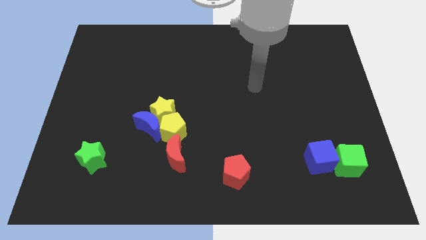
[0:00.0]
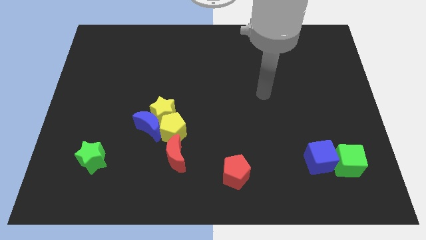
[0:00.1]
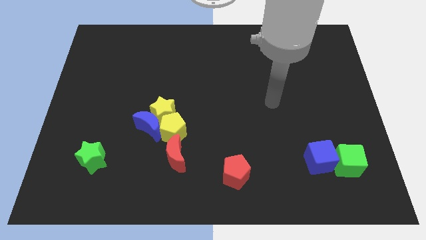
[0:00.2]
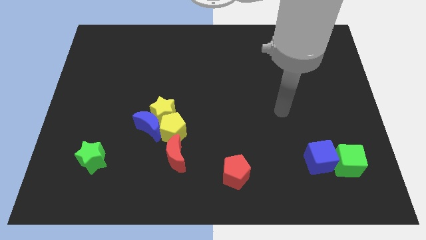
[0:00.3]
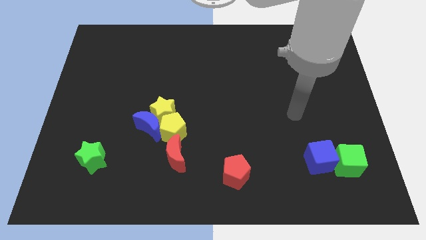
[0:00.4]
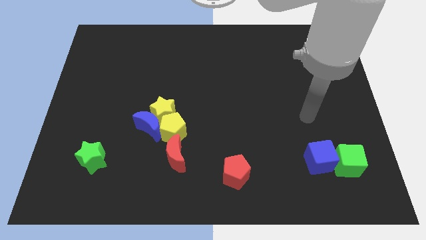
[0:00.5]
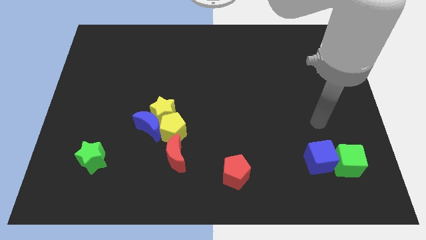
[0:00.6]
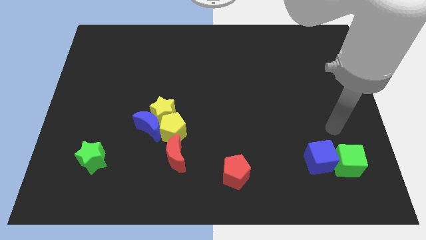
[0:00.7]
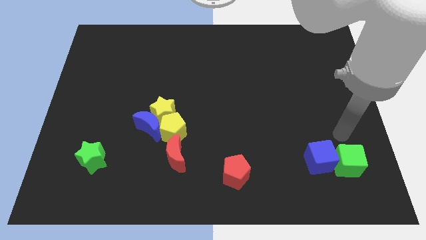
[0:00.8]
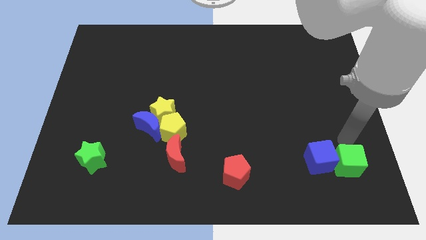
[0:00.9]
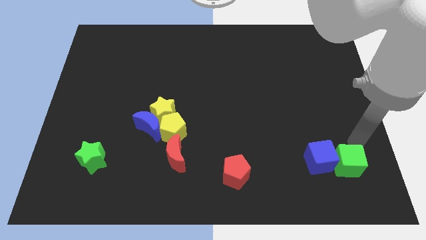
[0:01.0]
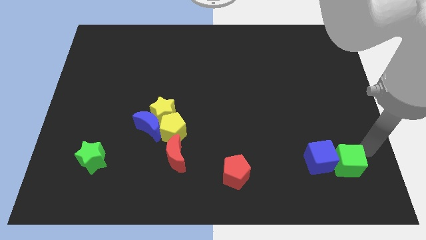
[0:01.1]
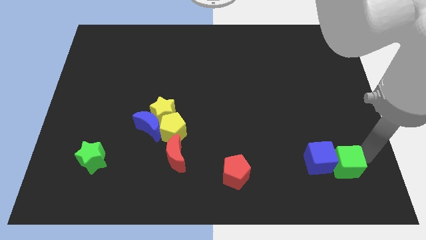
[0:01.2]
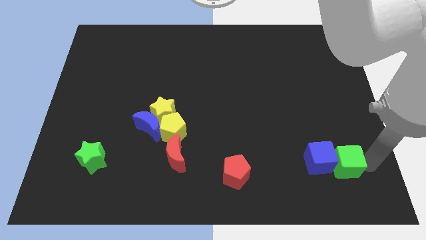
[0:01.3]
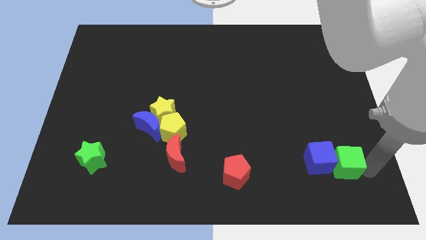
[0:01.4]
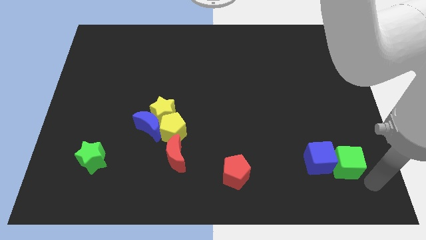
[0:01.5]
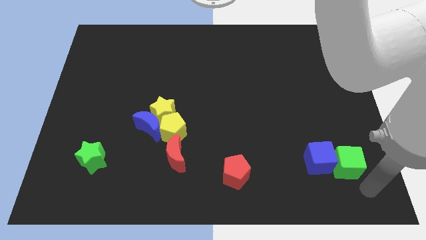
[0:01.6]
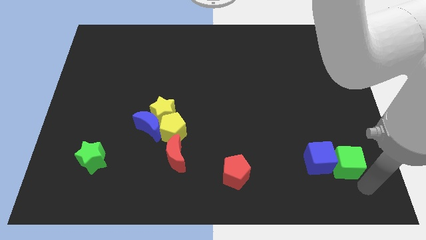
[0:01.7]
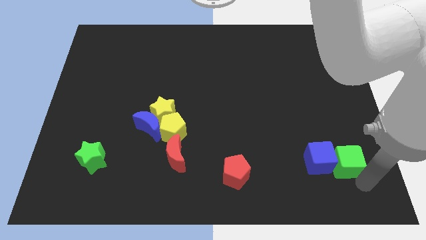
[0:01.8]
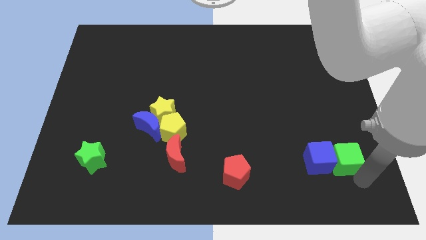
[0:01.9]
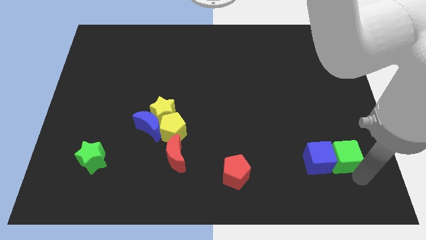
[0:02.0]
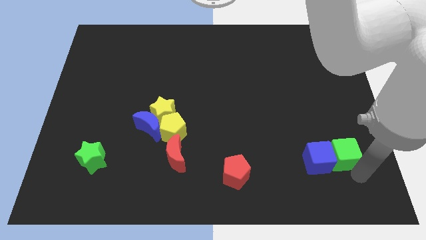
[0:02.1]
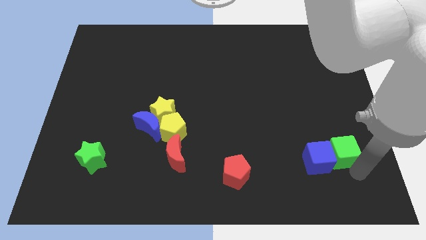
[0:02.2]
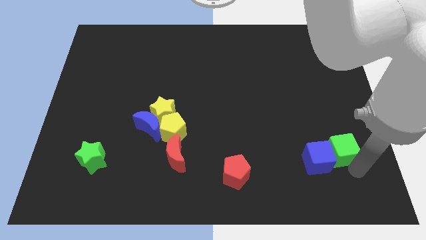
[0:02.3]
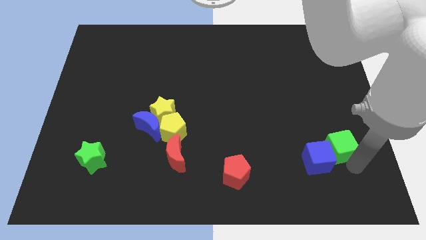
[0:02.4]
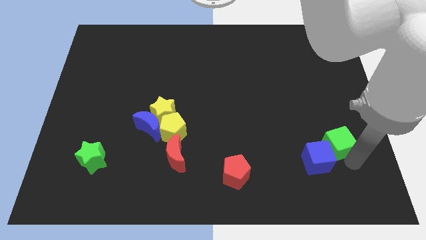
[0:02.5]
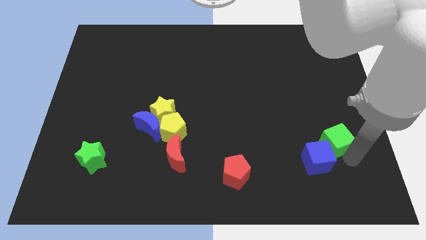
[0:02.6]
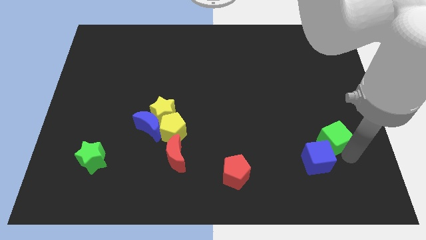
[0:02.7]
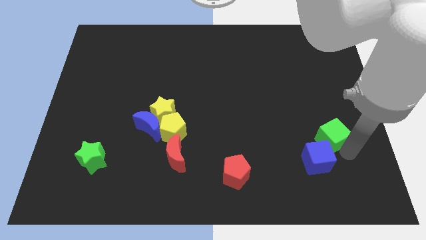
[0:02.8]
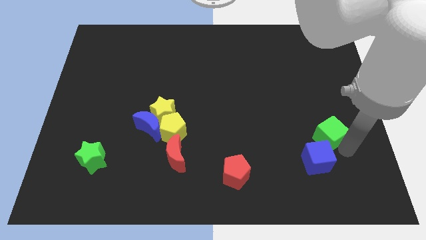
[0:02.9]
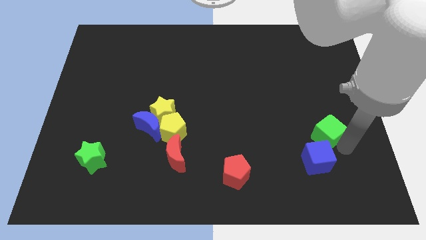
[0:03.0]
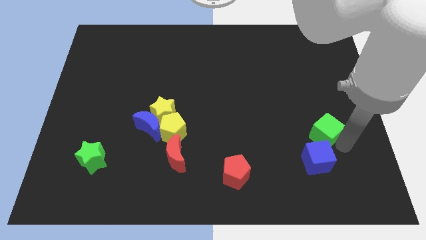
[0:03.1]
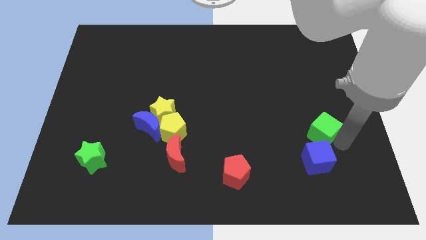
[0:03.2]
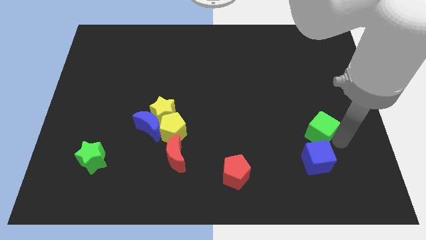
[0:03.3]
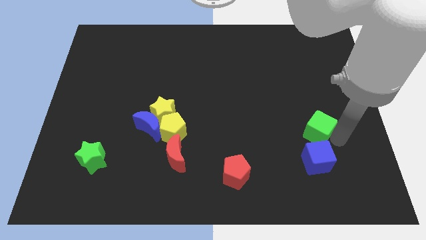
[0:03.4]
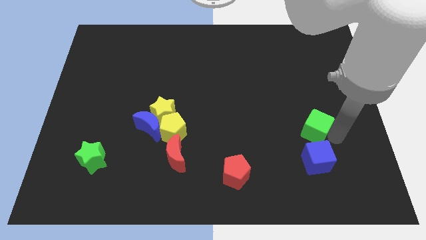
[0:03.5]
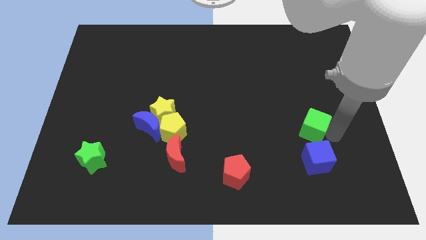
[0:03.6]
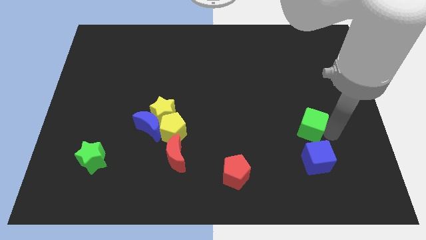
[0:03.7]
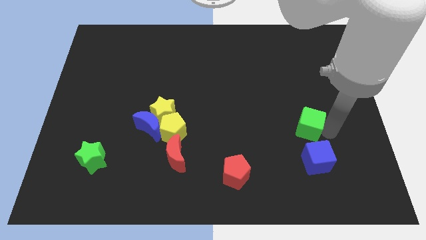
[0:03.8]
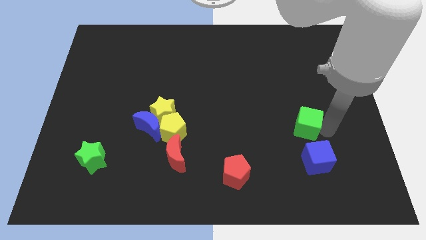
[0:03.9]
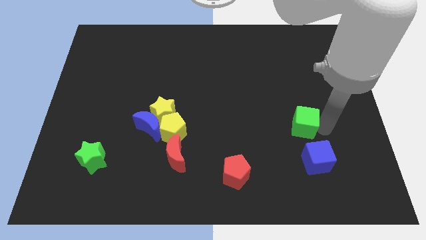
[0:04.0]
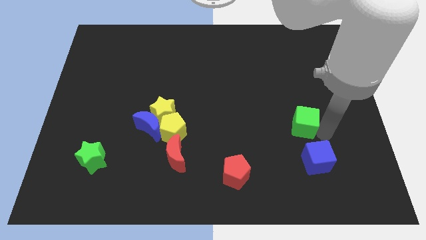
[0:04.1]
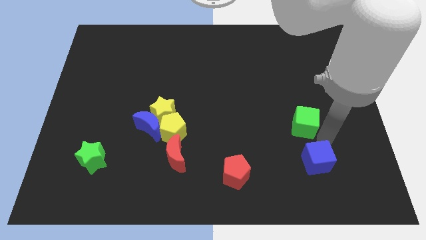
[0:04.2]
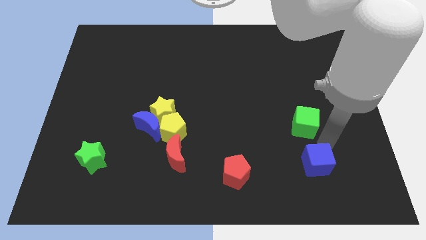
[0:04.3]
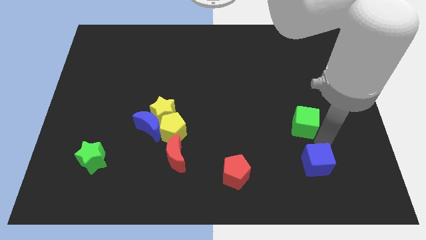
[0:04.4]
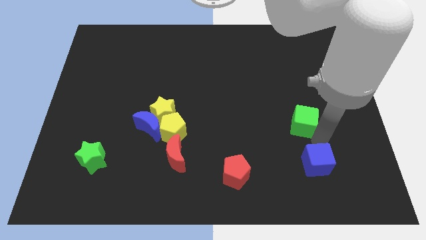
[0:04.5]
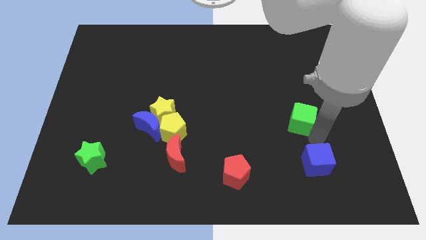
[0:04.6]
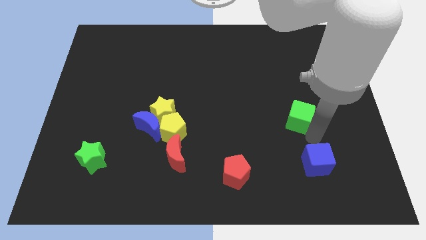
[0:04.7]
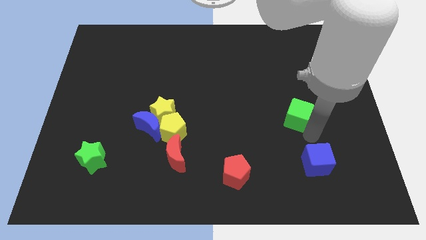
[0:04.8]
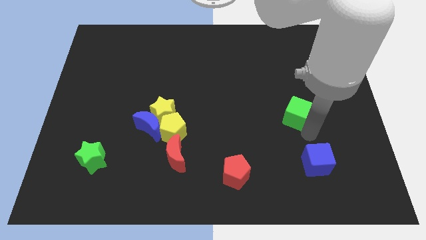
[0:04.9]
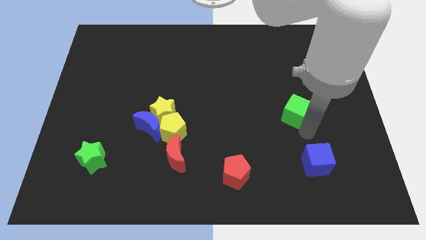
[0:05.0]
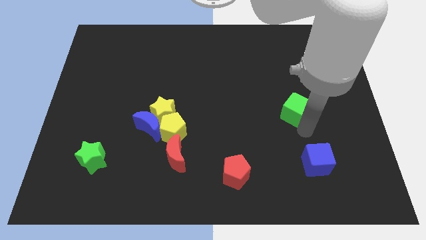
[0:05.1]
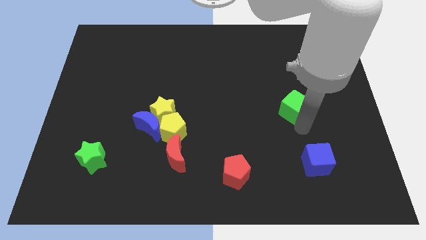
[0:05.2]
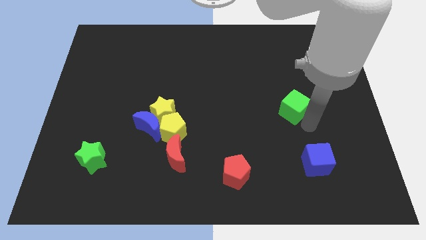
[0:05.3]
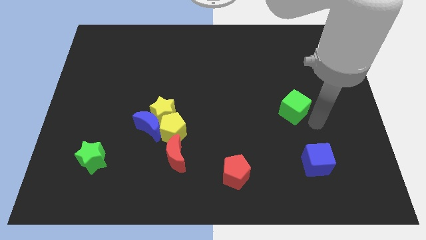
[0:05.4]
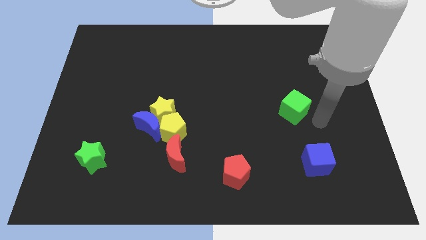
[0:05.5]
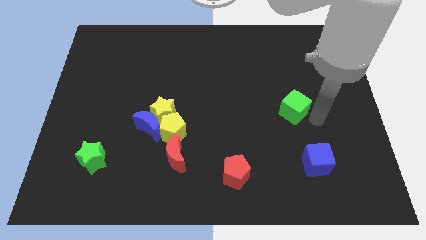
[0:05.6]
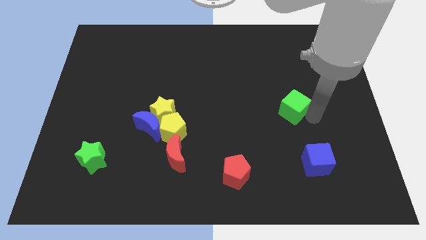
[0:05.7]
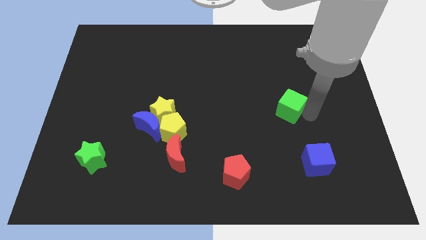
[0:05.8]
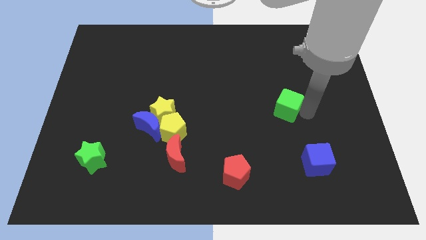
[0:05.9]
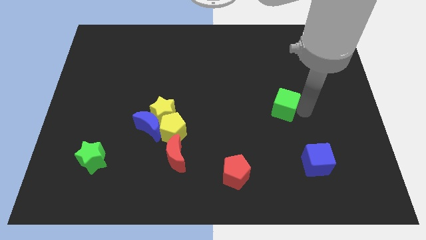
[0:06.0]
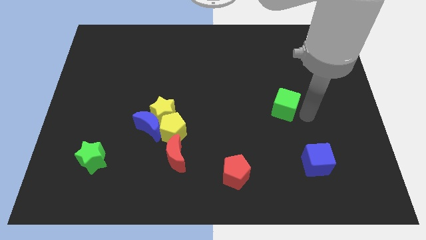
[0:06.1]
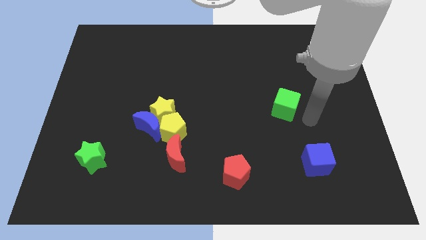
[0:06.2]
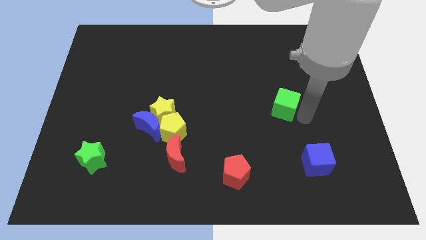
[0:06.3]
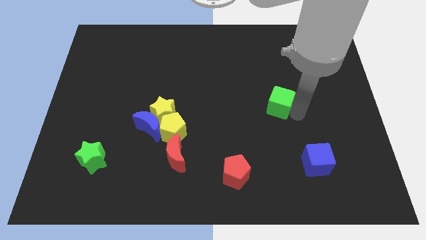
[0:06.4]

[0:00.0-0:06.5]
push the green cube upwards and then left

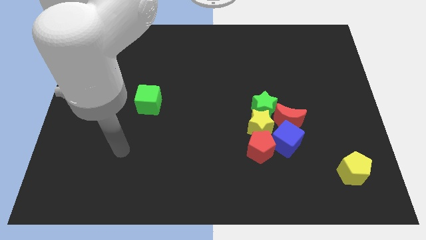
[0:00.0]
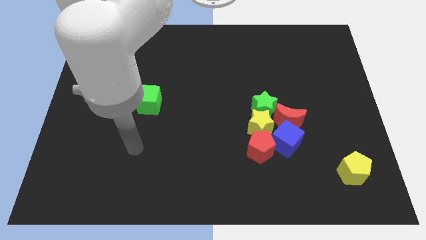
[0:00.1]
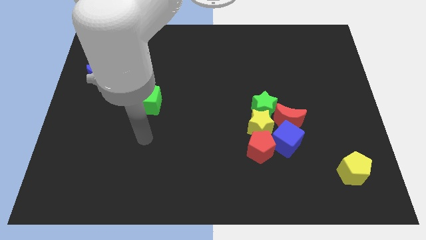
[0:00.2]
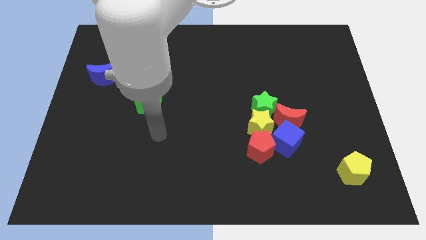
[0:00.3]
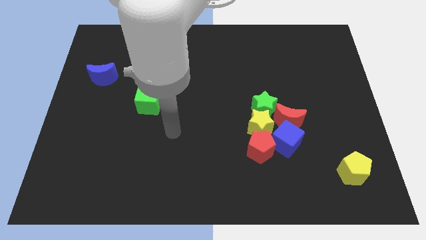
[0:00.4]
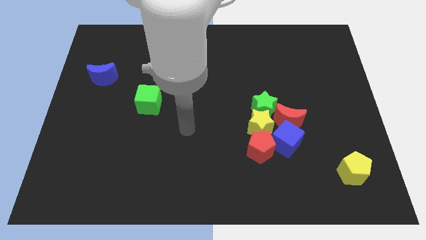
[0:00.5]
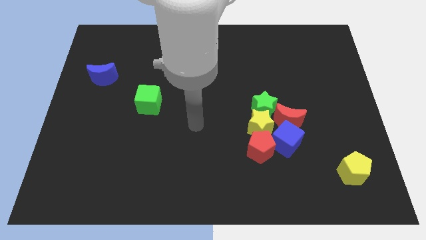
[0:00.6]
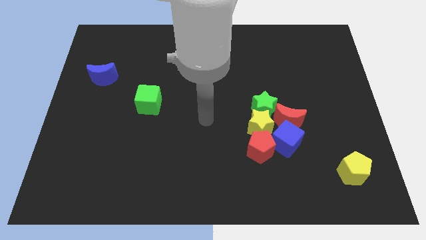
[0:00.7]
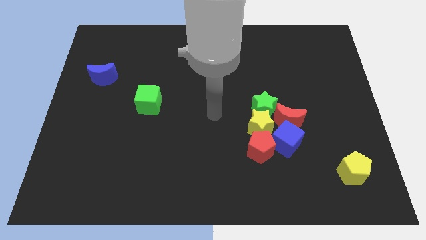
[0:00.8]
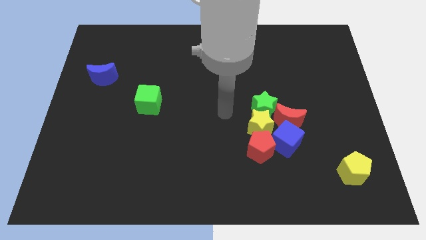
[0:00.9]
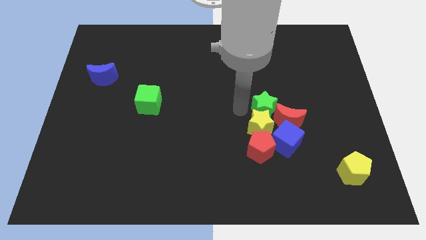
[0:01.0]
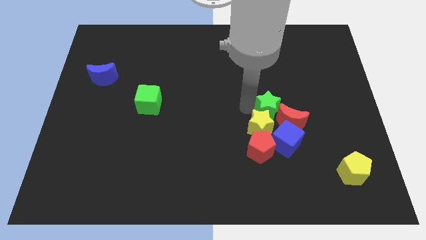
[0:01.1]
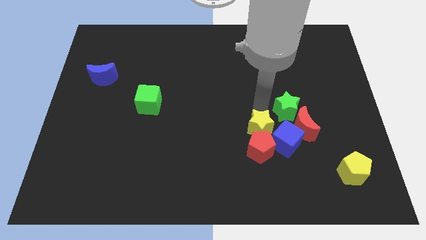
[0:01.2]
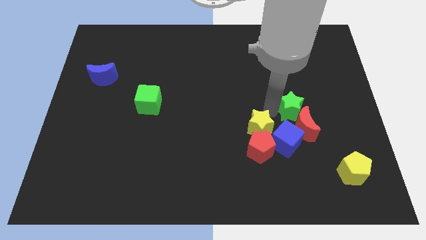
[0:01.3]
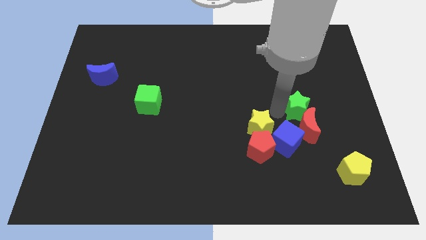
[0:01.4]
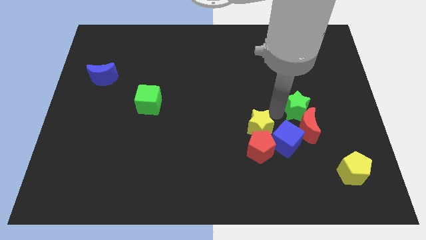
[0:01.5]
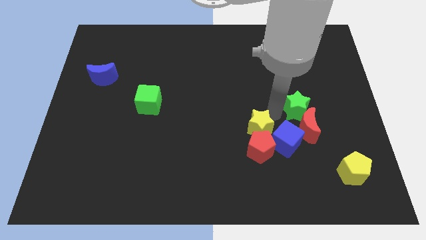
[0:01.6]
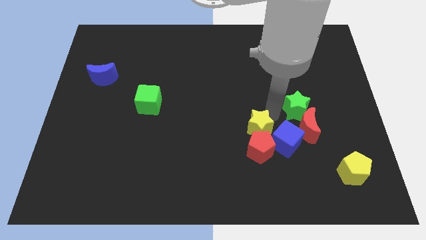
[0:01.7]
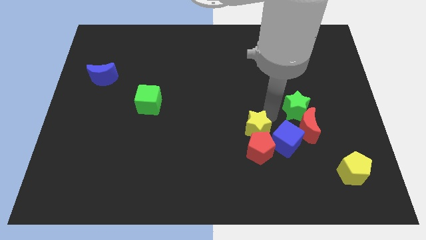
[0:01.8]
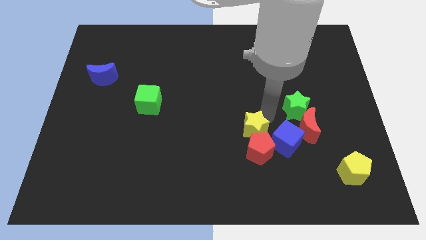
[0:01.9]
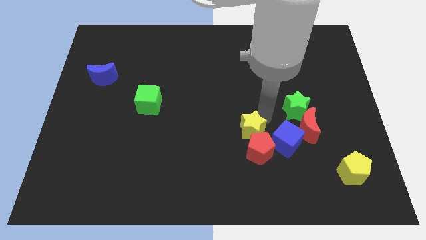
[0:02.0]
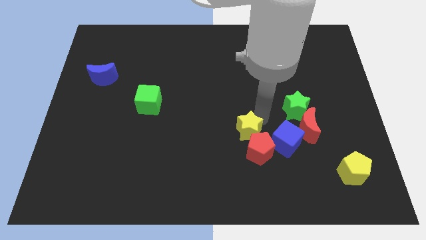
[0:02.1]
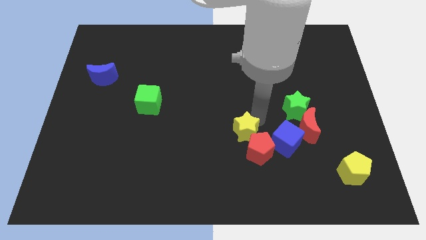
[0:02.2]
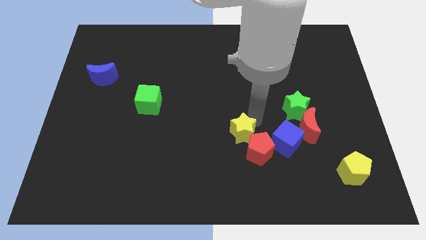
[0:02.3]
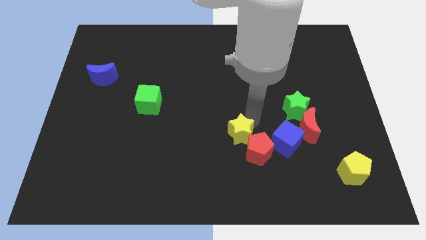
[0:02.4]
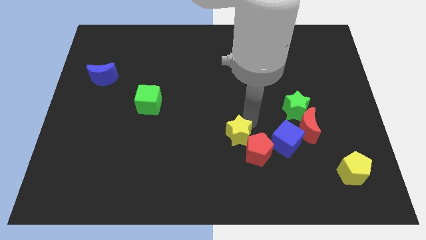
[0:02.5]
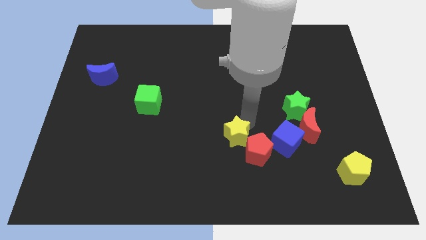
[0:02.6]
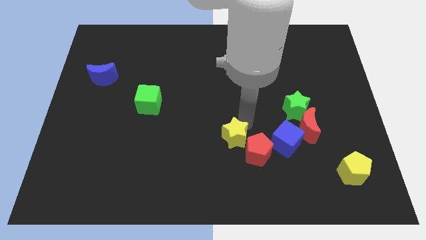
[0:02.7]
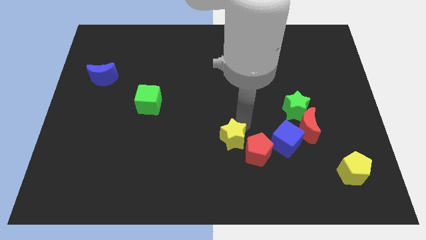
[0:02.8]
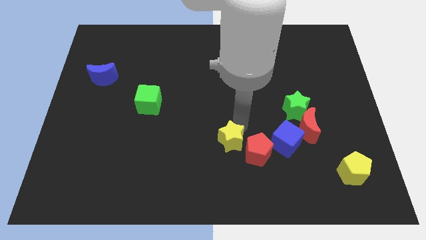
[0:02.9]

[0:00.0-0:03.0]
move the yellow star slightly down and then left
